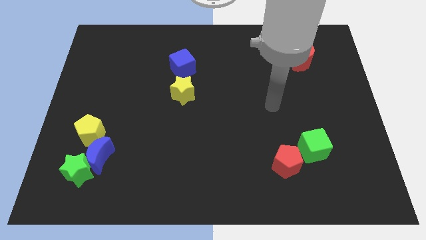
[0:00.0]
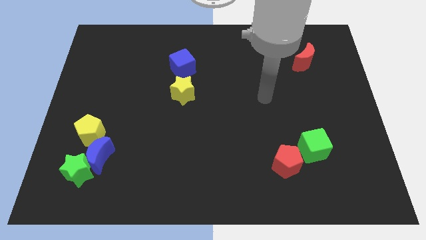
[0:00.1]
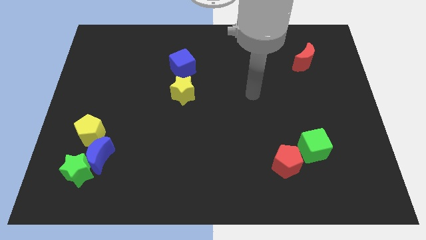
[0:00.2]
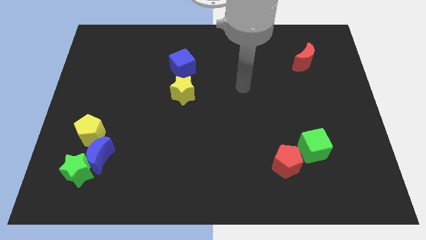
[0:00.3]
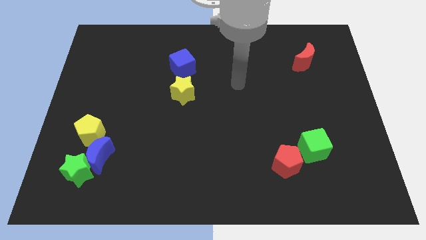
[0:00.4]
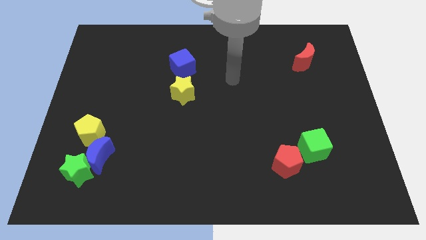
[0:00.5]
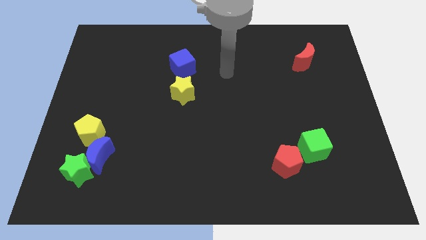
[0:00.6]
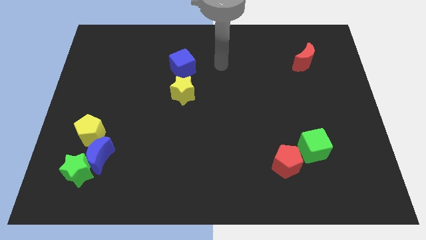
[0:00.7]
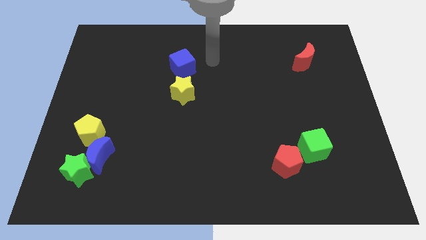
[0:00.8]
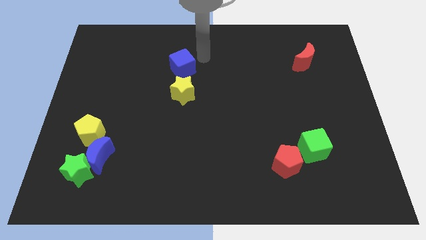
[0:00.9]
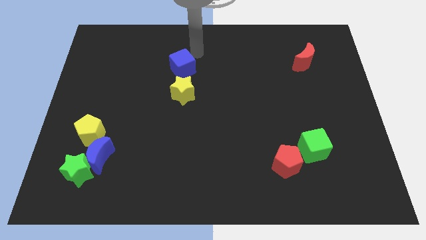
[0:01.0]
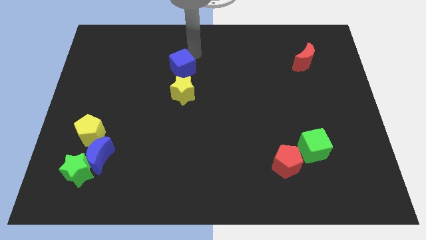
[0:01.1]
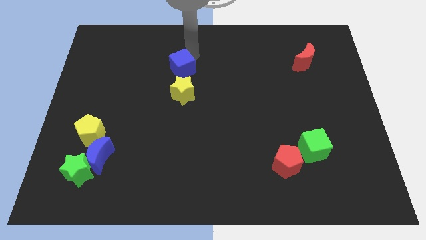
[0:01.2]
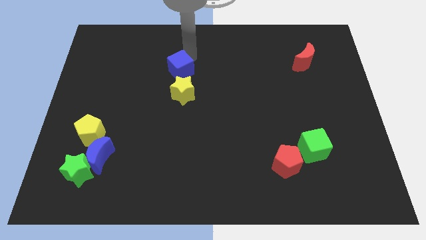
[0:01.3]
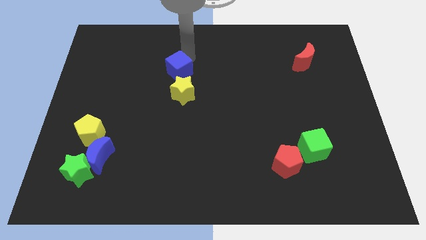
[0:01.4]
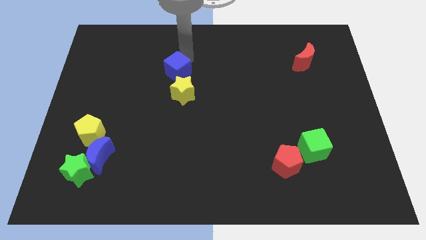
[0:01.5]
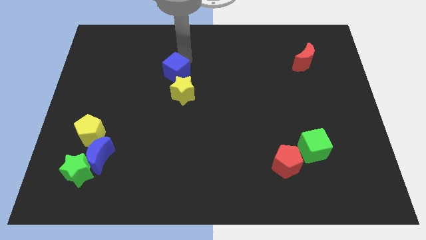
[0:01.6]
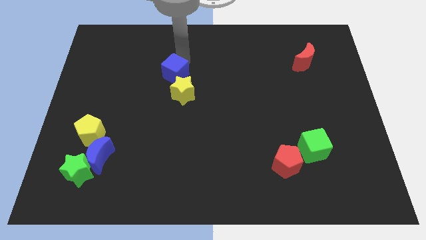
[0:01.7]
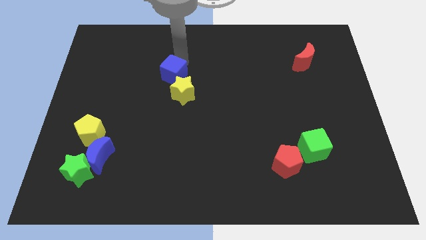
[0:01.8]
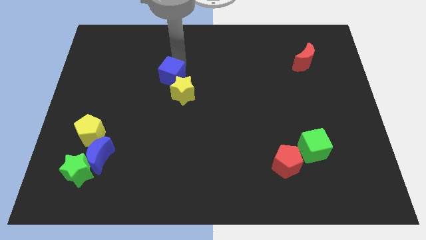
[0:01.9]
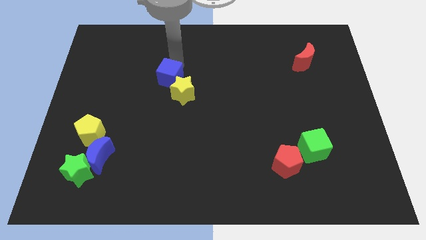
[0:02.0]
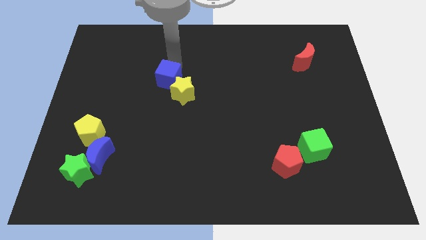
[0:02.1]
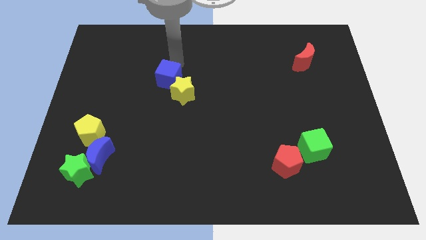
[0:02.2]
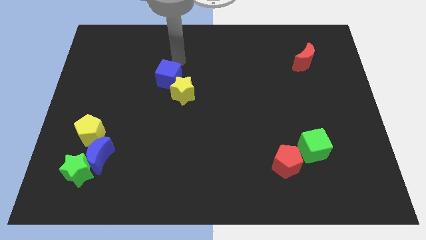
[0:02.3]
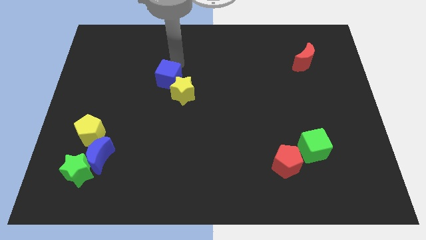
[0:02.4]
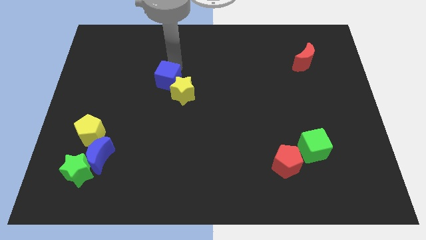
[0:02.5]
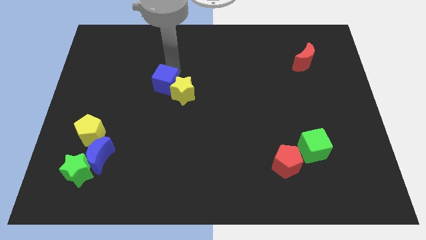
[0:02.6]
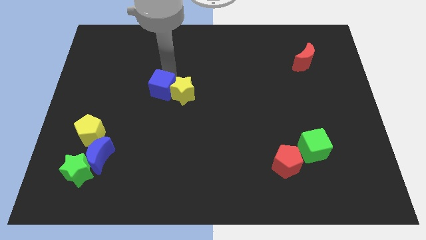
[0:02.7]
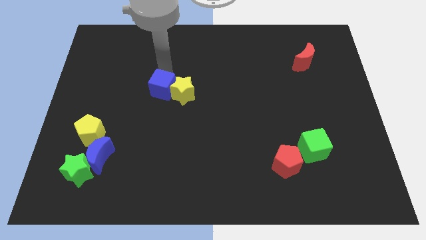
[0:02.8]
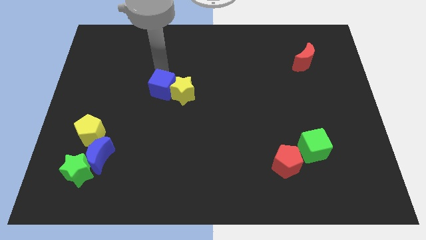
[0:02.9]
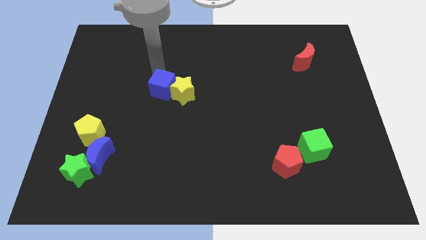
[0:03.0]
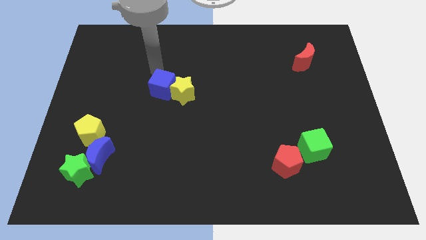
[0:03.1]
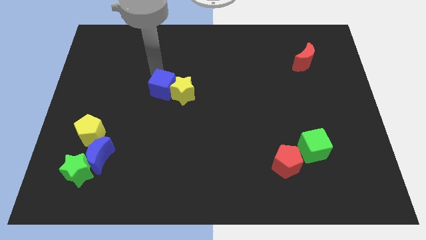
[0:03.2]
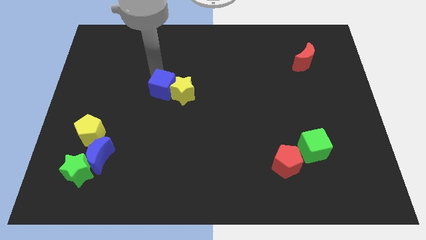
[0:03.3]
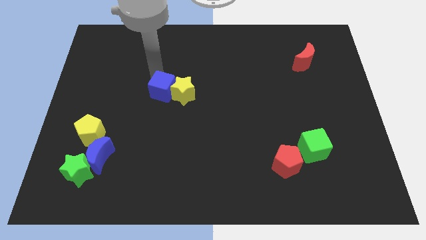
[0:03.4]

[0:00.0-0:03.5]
slightly move the blue cube down

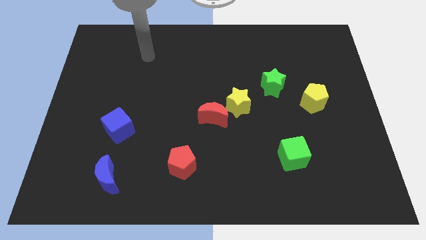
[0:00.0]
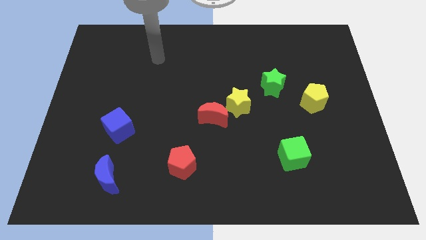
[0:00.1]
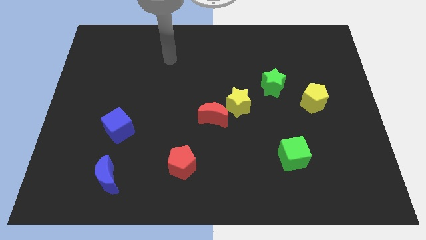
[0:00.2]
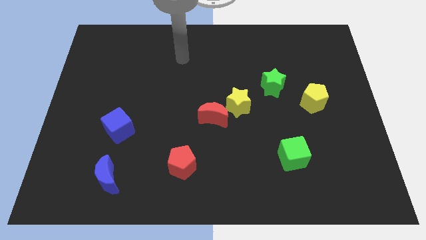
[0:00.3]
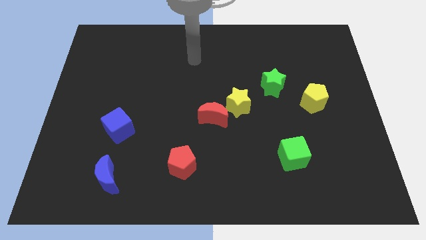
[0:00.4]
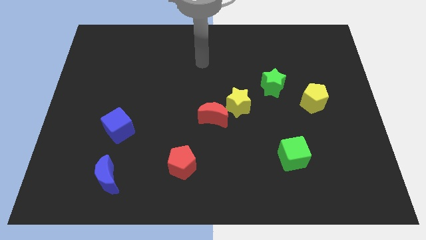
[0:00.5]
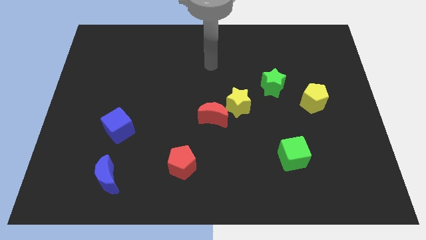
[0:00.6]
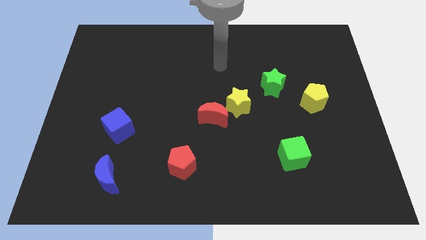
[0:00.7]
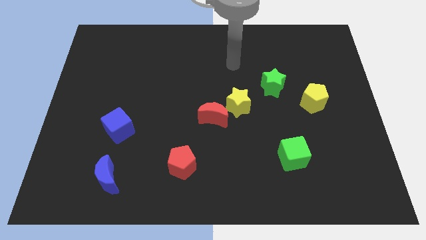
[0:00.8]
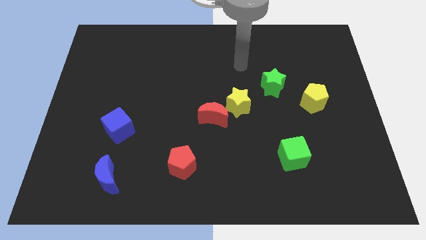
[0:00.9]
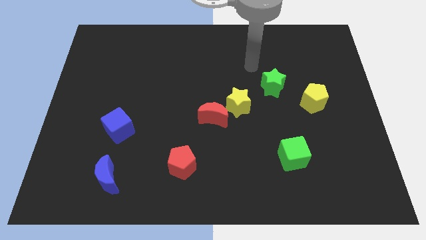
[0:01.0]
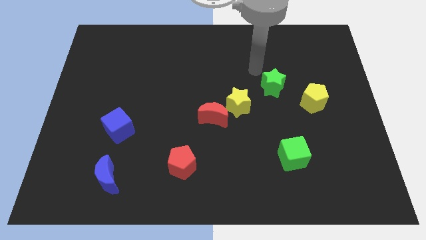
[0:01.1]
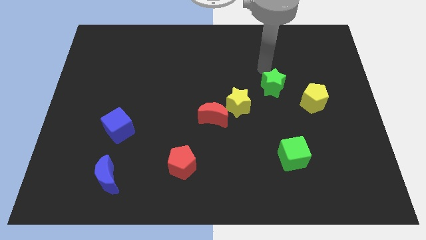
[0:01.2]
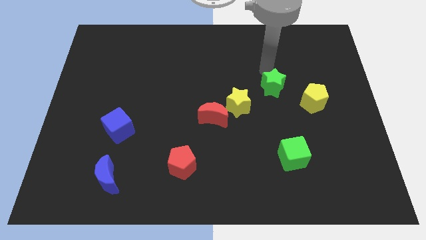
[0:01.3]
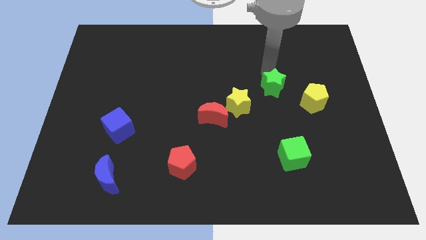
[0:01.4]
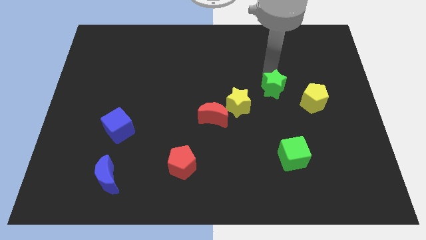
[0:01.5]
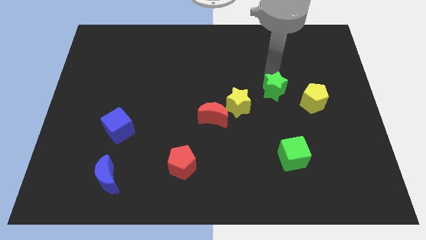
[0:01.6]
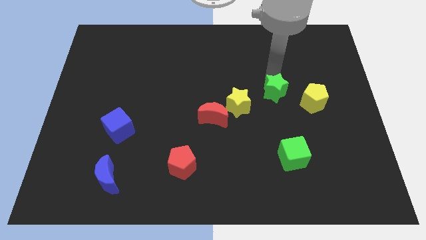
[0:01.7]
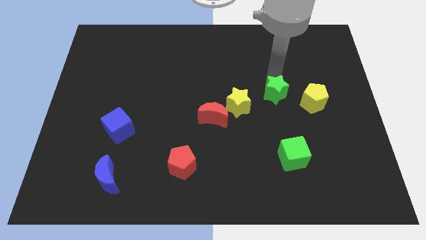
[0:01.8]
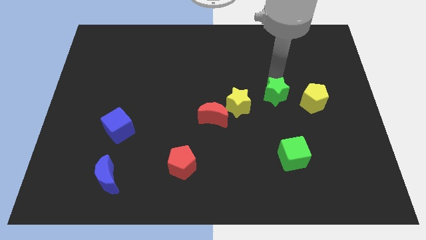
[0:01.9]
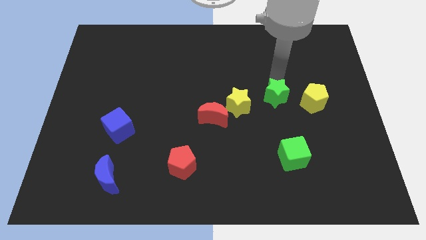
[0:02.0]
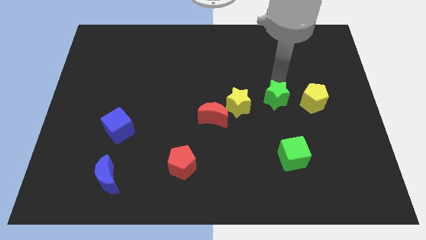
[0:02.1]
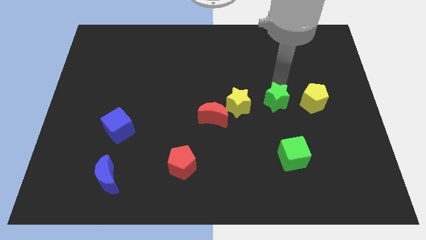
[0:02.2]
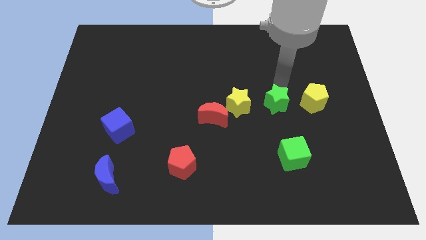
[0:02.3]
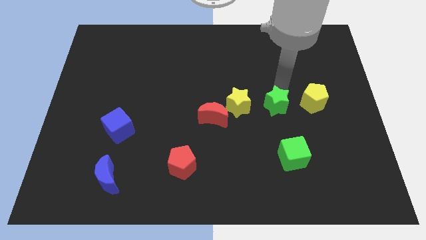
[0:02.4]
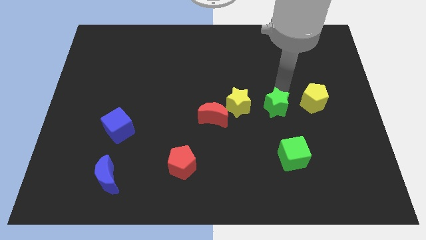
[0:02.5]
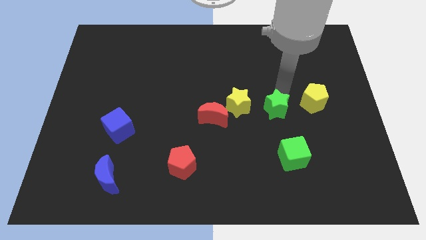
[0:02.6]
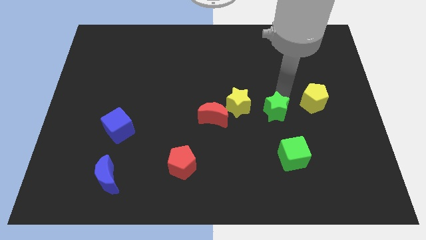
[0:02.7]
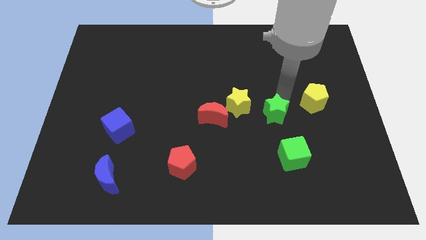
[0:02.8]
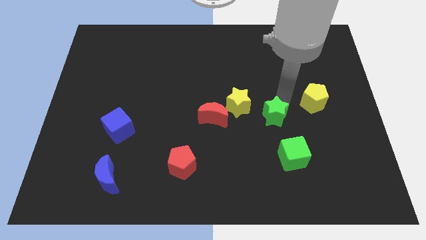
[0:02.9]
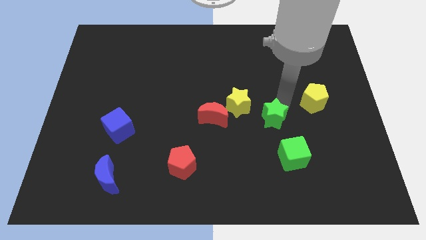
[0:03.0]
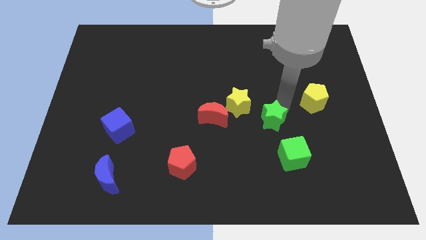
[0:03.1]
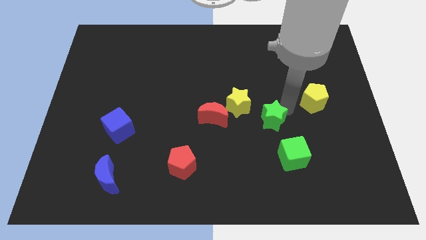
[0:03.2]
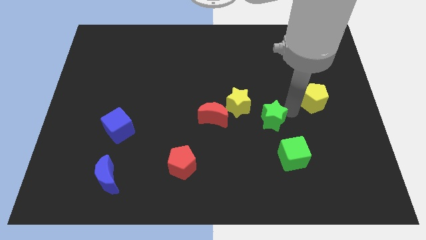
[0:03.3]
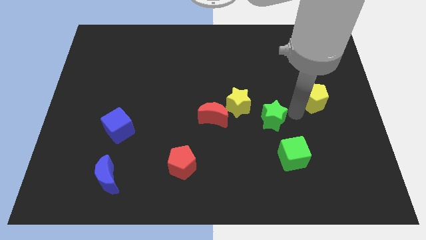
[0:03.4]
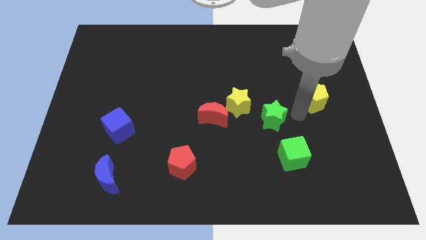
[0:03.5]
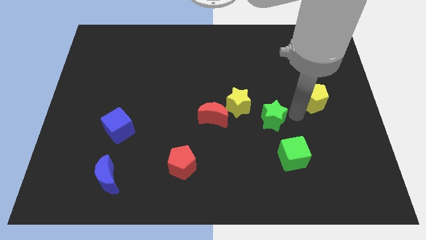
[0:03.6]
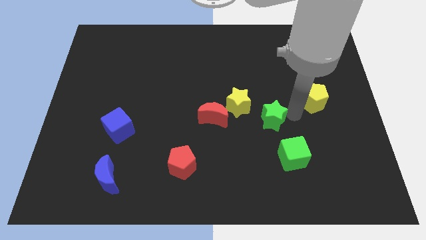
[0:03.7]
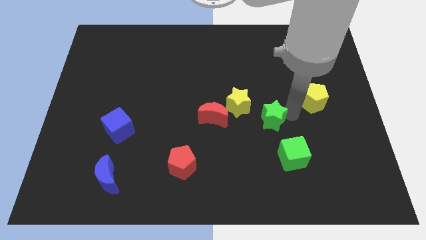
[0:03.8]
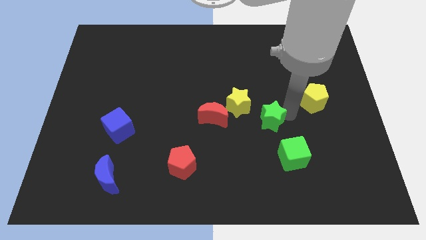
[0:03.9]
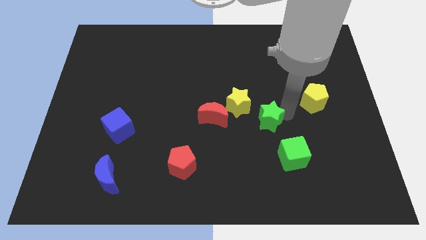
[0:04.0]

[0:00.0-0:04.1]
push the green star a little bit down and left

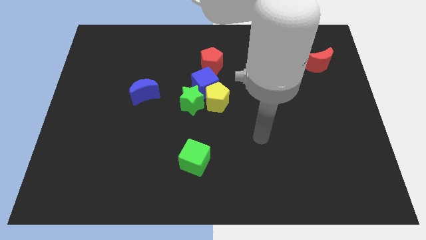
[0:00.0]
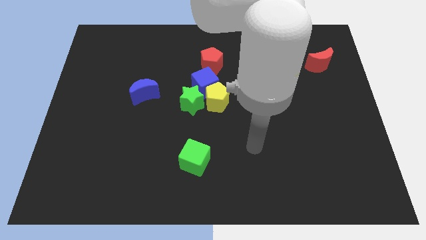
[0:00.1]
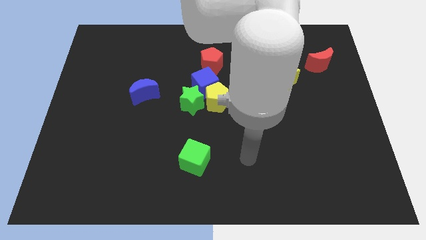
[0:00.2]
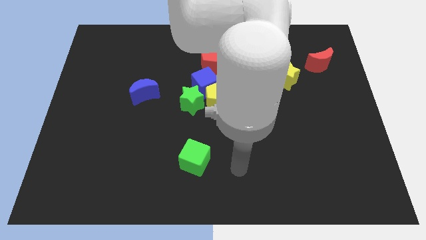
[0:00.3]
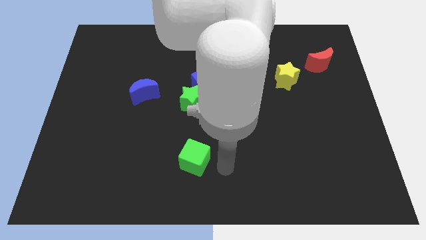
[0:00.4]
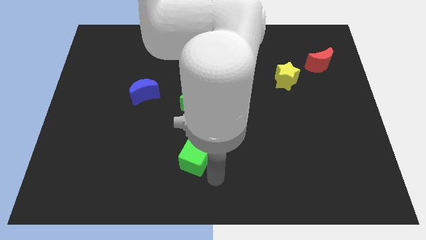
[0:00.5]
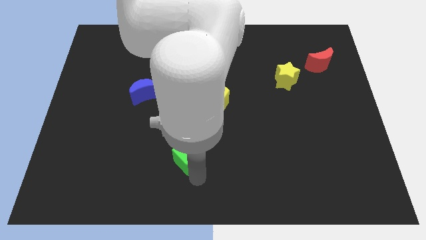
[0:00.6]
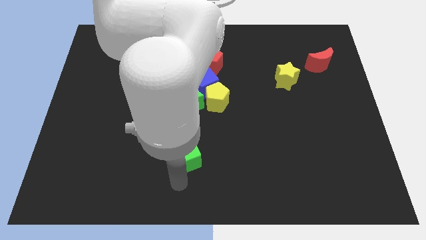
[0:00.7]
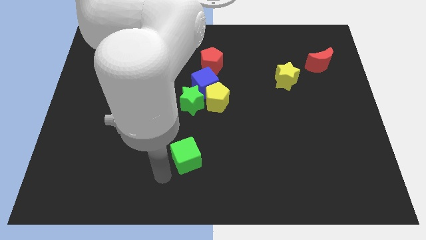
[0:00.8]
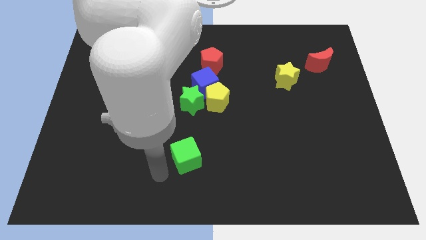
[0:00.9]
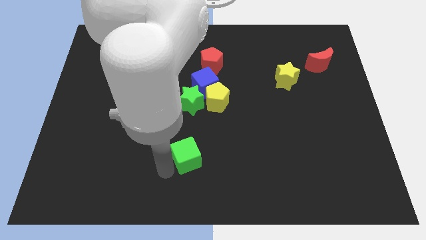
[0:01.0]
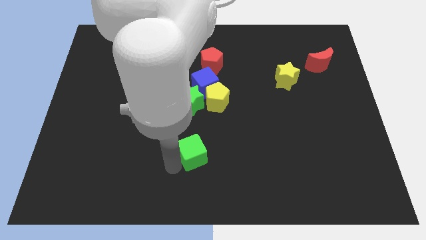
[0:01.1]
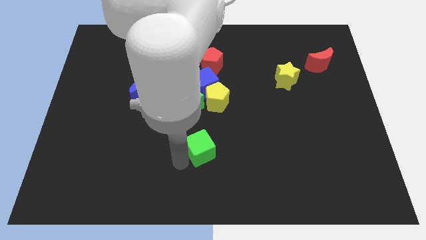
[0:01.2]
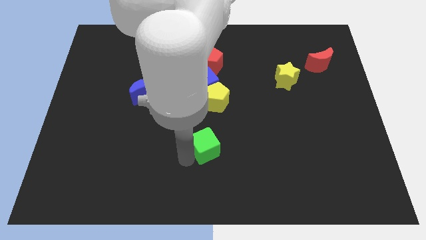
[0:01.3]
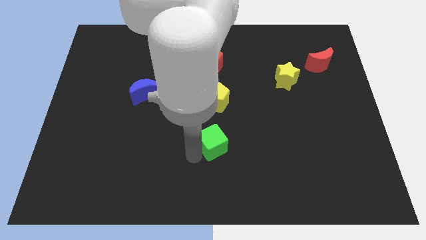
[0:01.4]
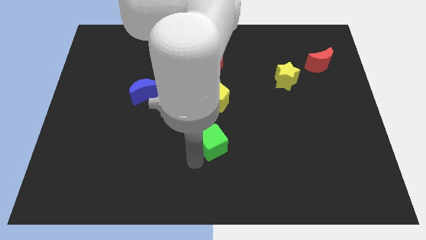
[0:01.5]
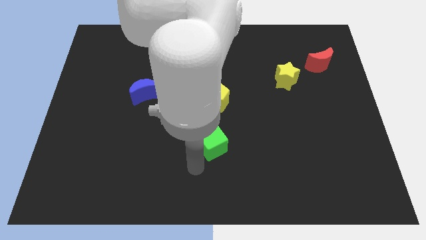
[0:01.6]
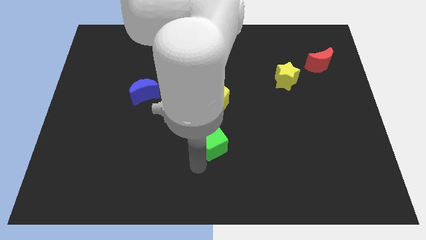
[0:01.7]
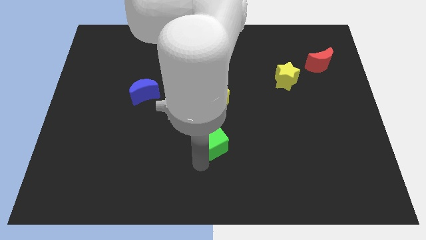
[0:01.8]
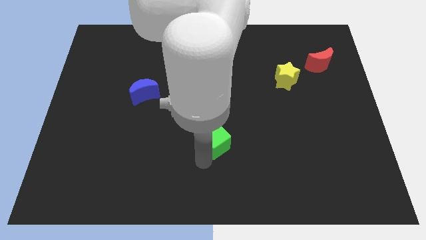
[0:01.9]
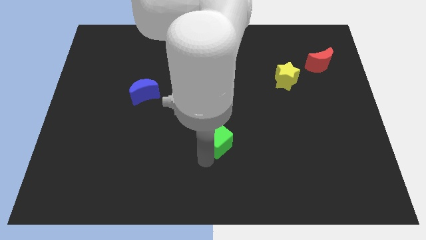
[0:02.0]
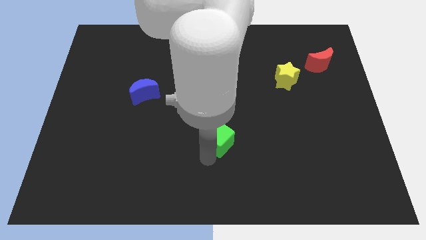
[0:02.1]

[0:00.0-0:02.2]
slightly move the green cube up and to the right
